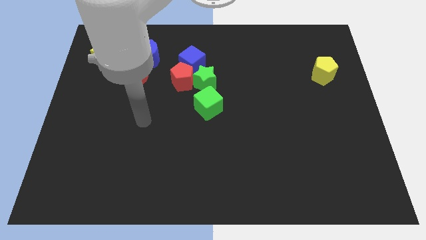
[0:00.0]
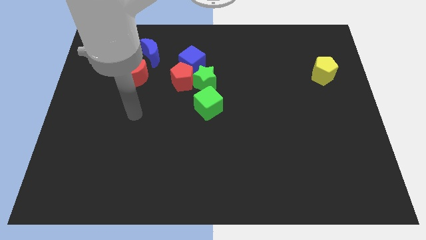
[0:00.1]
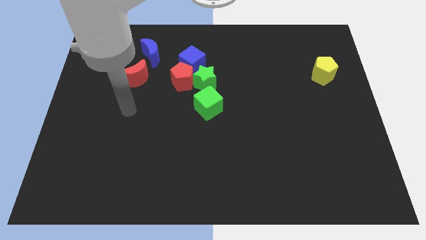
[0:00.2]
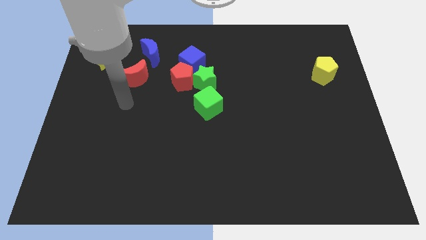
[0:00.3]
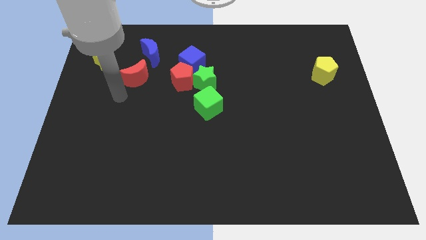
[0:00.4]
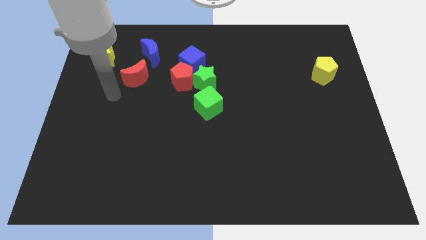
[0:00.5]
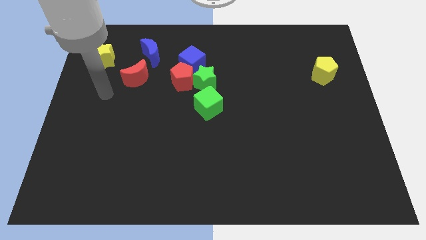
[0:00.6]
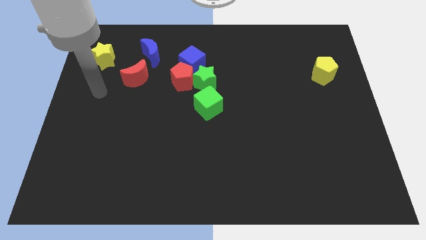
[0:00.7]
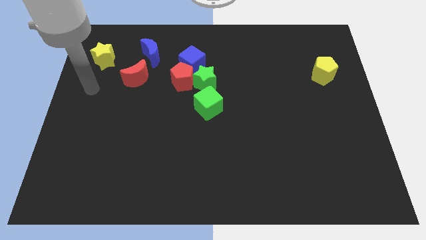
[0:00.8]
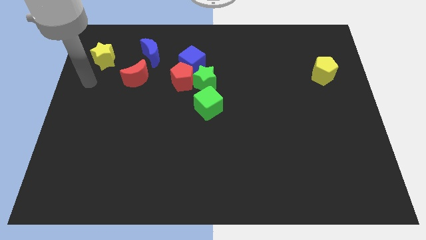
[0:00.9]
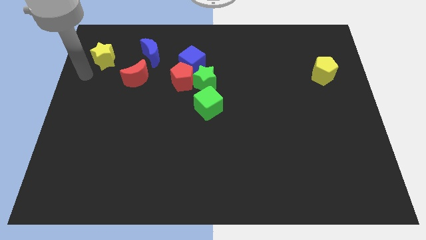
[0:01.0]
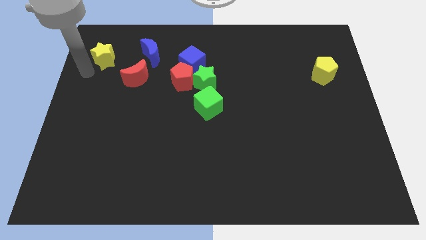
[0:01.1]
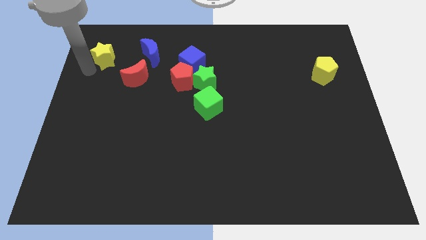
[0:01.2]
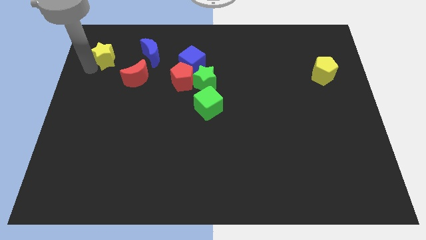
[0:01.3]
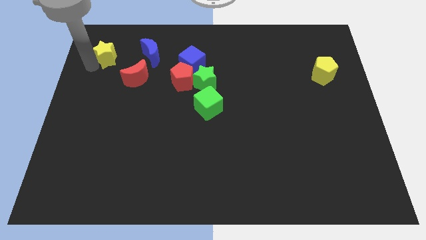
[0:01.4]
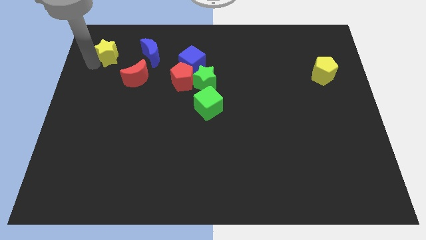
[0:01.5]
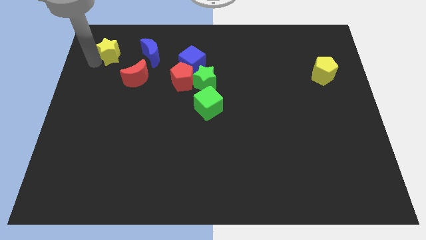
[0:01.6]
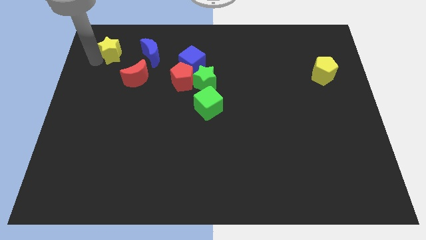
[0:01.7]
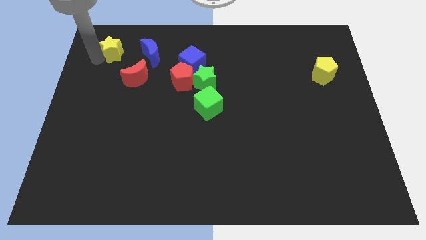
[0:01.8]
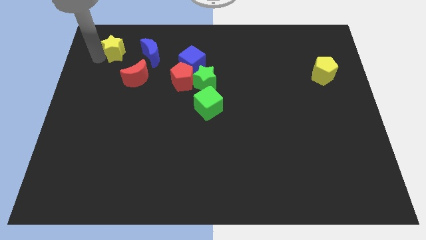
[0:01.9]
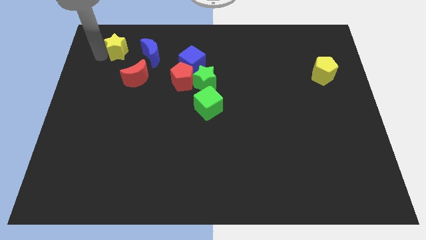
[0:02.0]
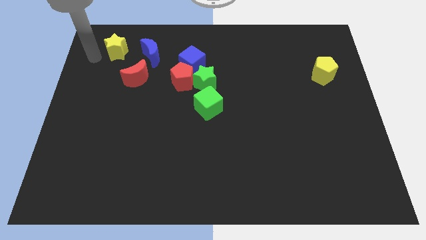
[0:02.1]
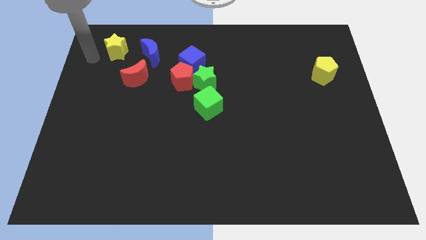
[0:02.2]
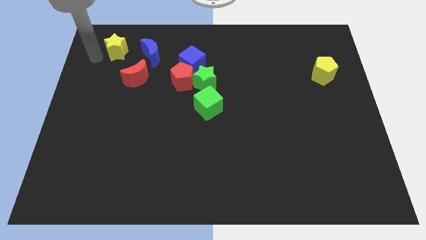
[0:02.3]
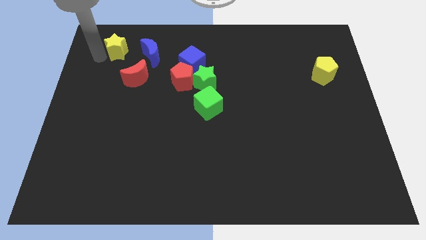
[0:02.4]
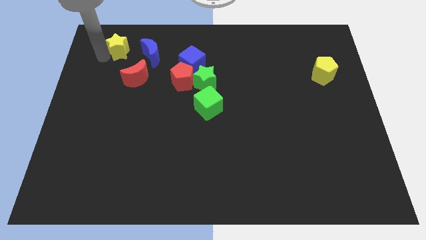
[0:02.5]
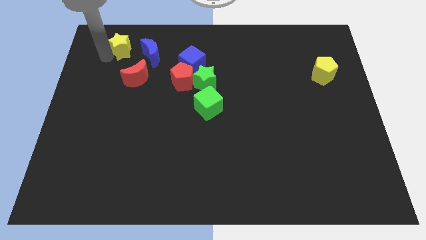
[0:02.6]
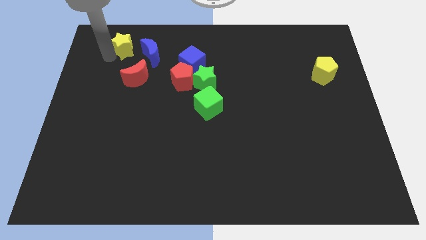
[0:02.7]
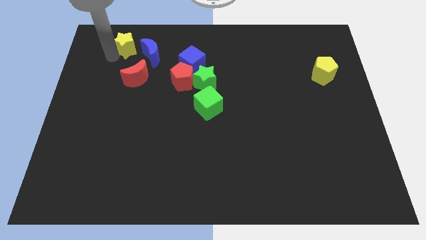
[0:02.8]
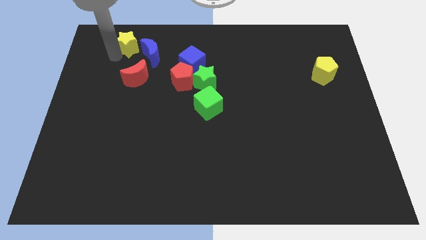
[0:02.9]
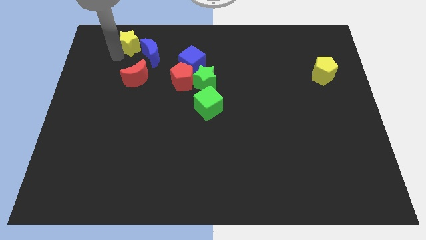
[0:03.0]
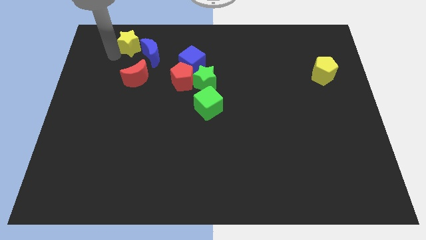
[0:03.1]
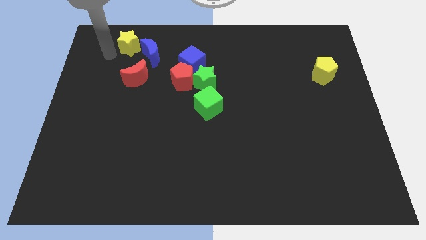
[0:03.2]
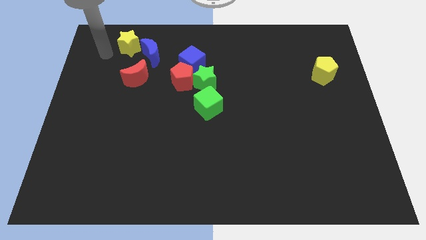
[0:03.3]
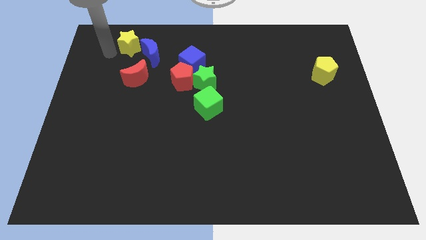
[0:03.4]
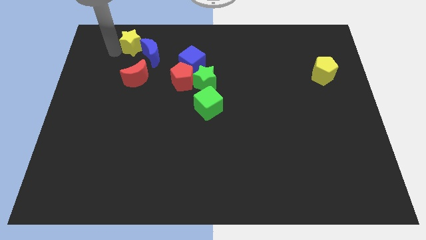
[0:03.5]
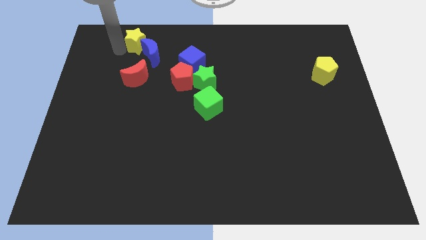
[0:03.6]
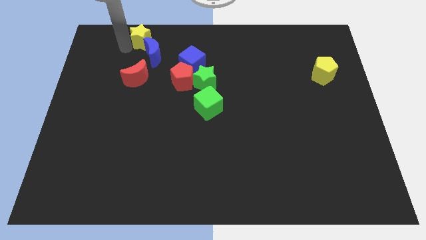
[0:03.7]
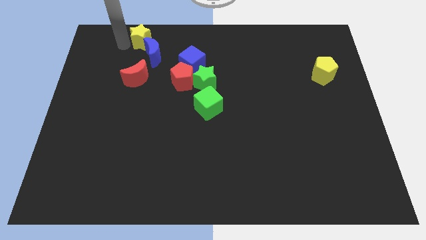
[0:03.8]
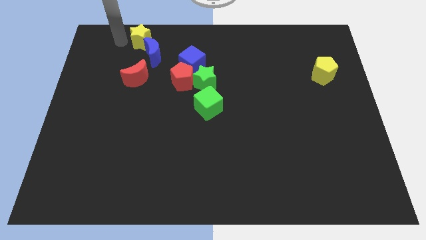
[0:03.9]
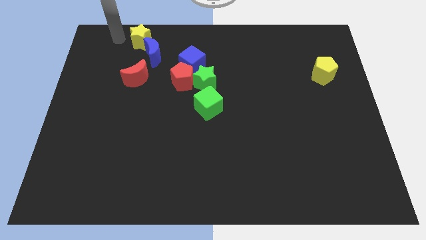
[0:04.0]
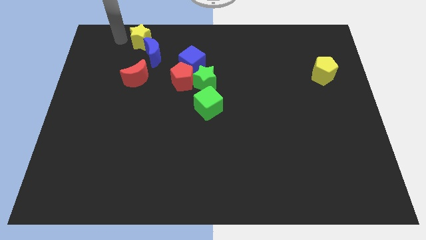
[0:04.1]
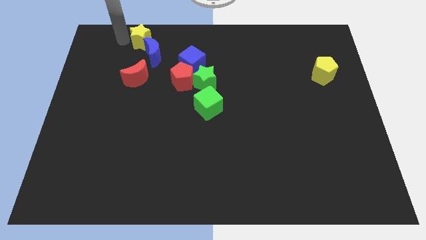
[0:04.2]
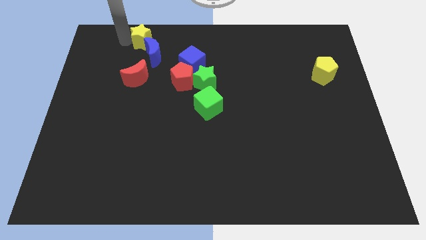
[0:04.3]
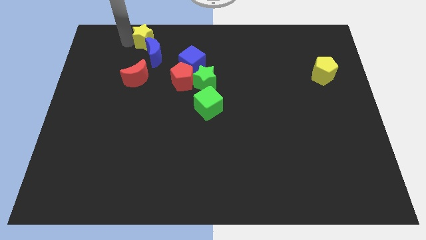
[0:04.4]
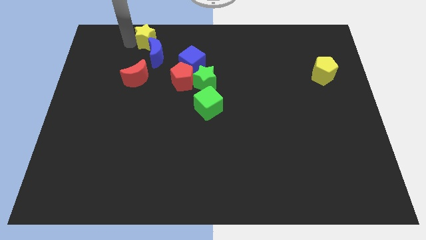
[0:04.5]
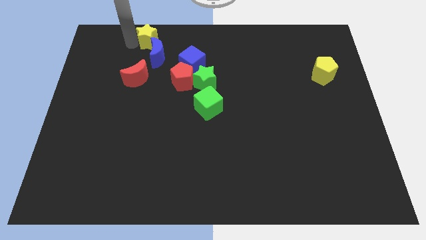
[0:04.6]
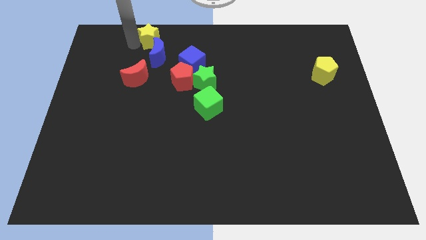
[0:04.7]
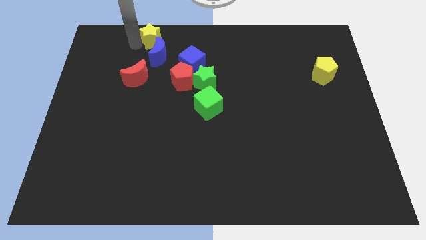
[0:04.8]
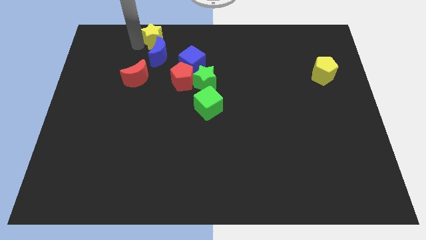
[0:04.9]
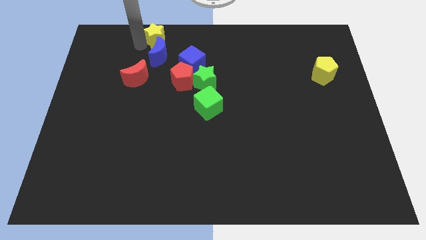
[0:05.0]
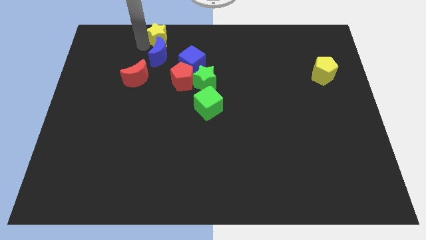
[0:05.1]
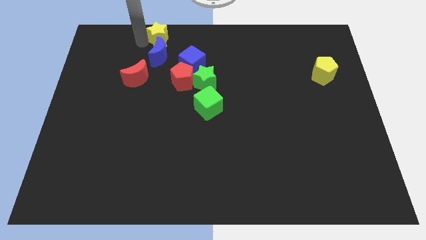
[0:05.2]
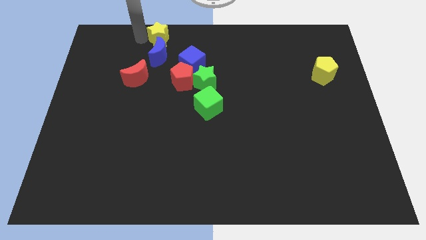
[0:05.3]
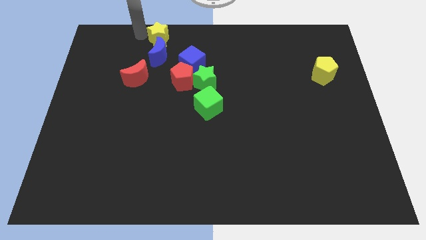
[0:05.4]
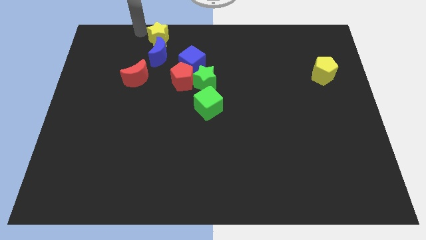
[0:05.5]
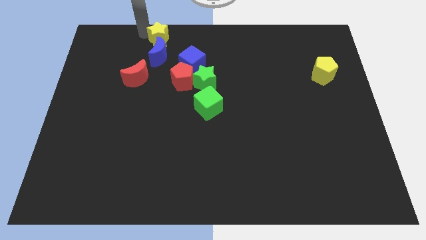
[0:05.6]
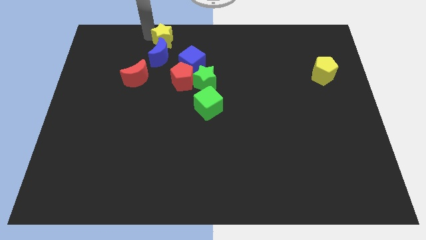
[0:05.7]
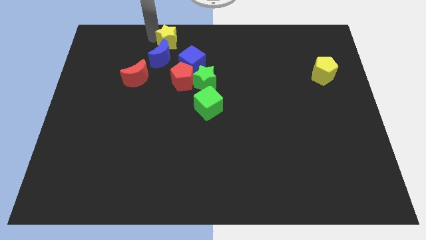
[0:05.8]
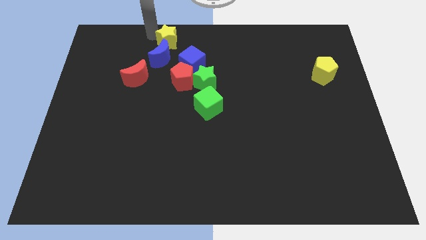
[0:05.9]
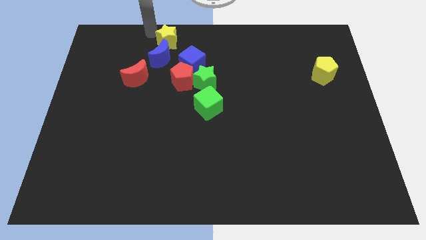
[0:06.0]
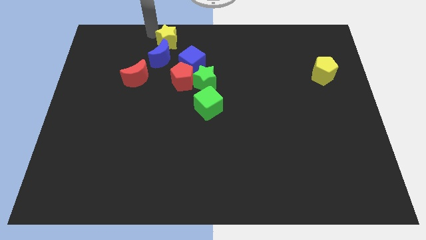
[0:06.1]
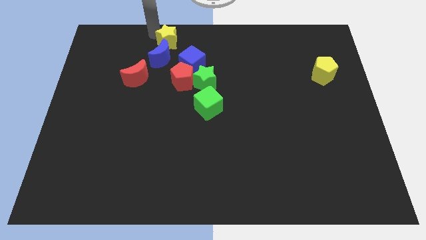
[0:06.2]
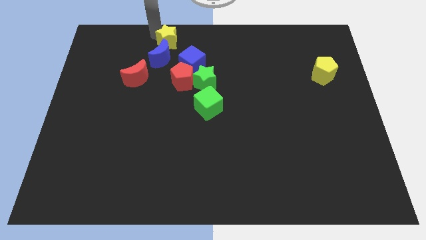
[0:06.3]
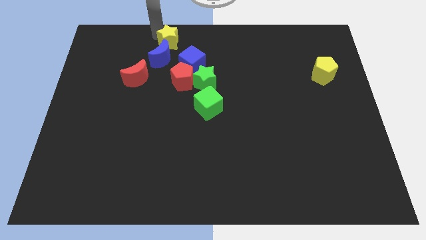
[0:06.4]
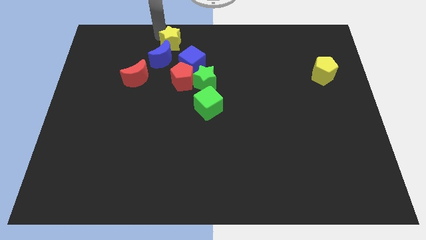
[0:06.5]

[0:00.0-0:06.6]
slide the yellow star to the top side
